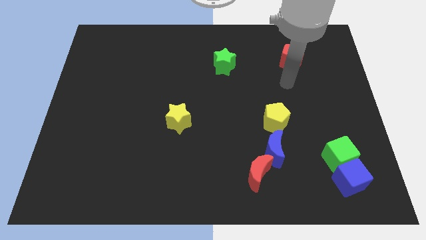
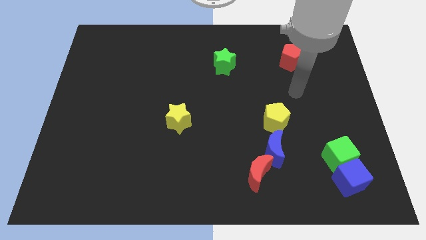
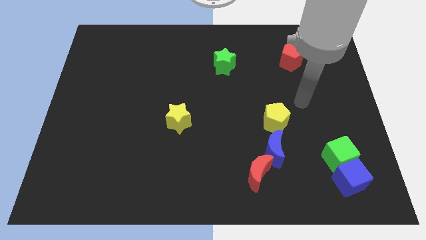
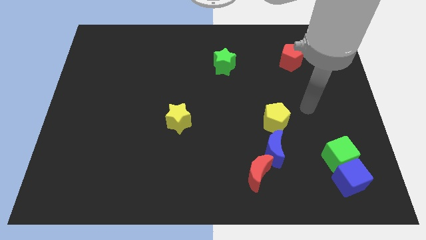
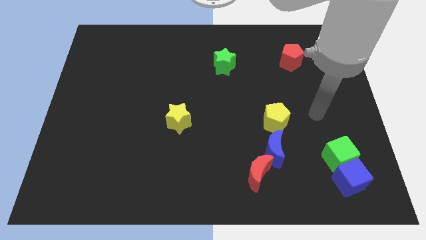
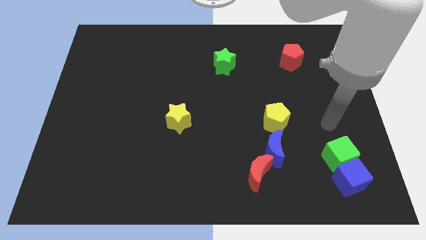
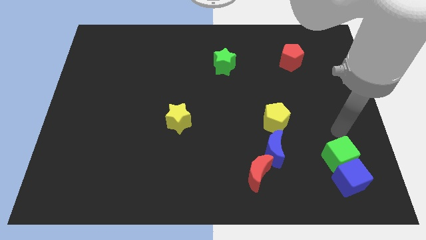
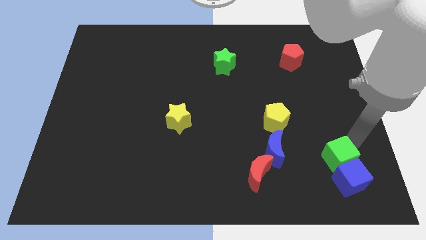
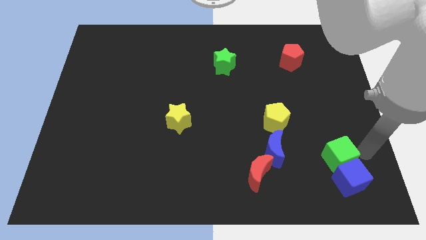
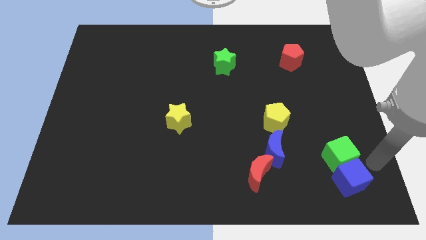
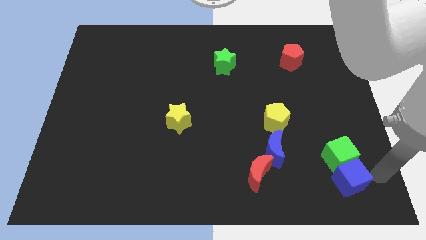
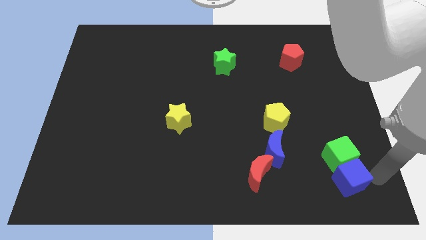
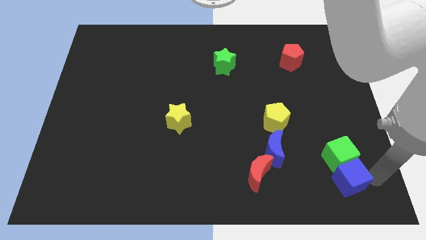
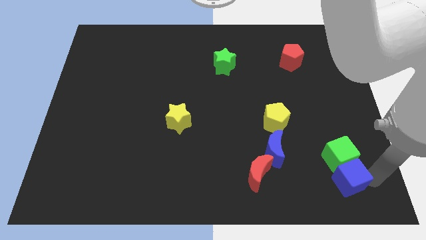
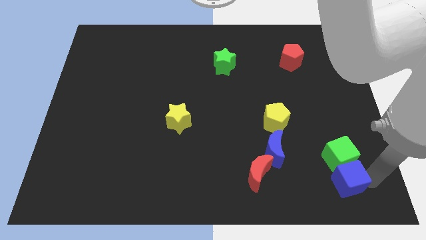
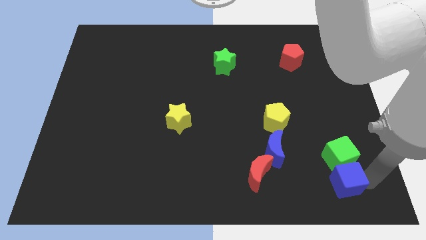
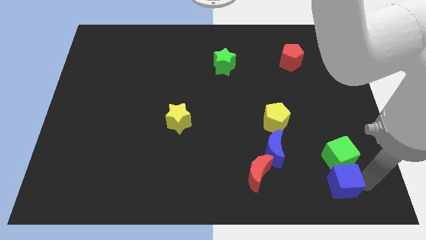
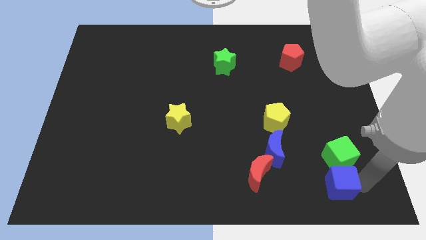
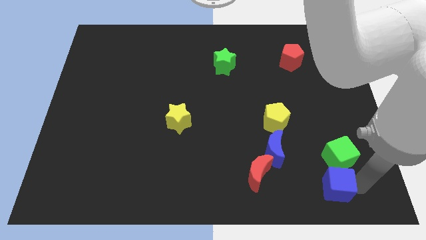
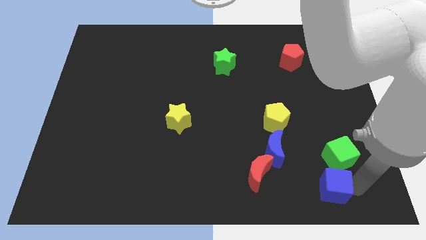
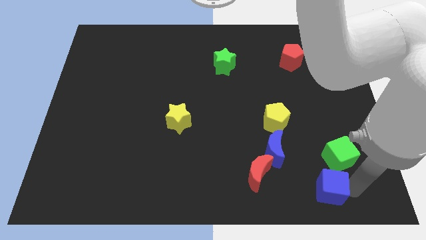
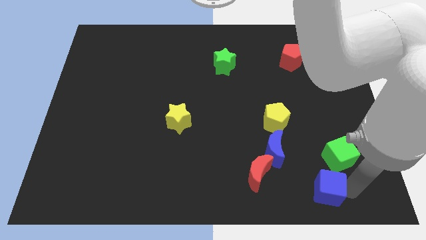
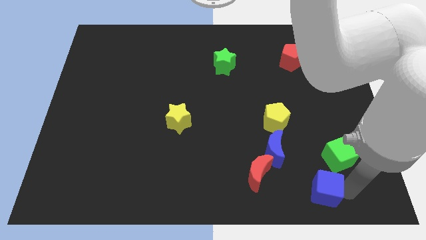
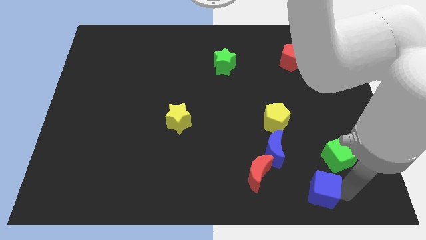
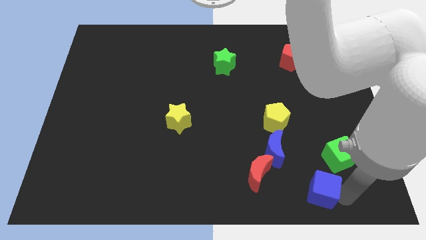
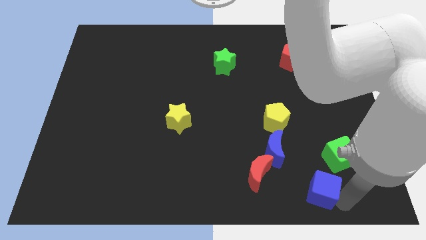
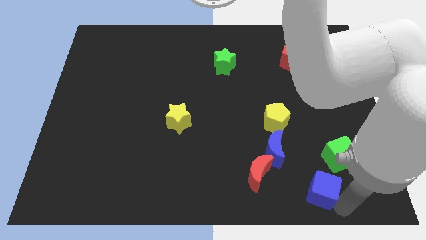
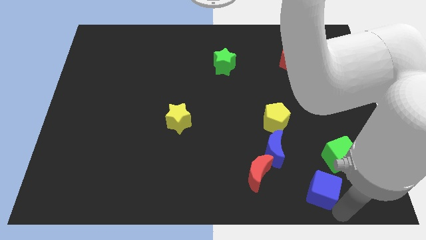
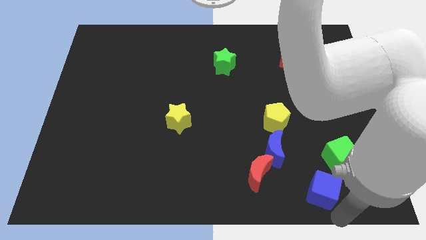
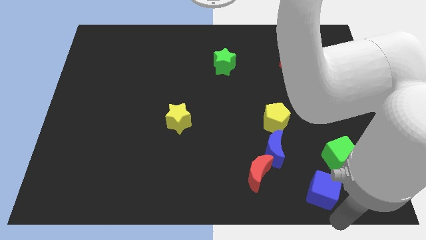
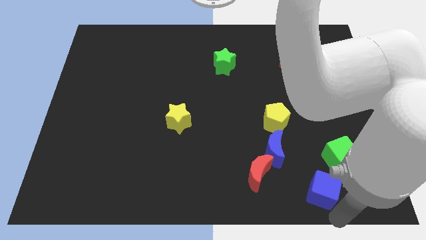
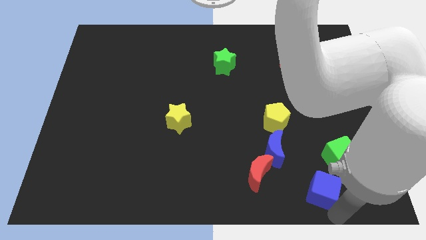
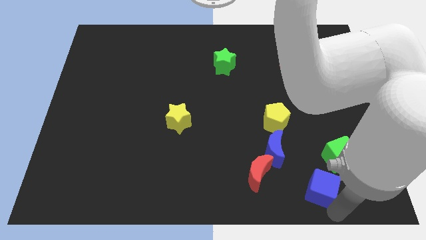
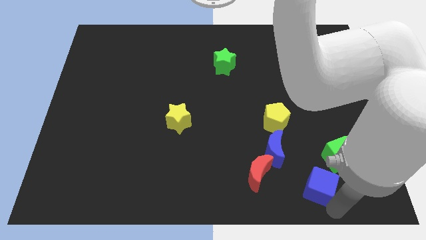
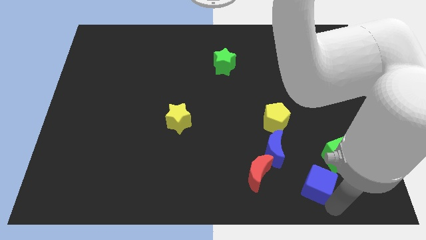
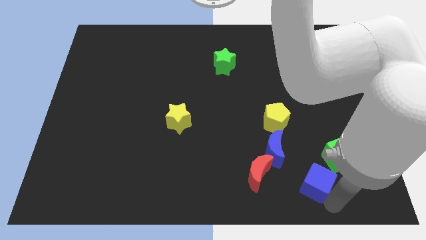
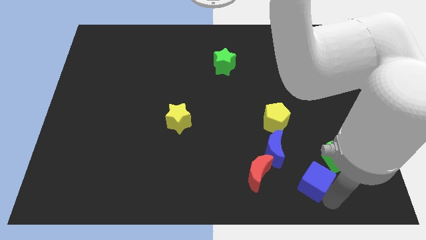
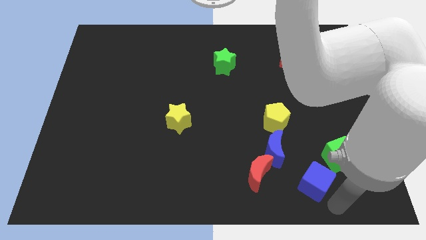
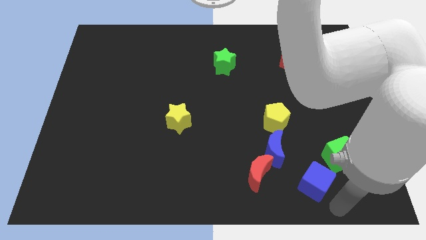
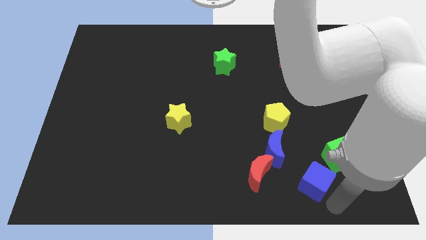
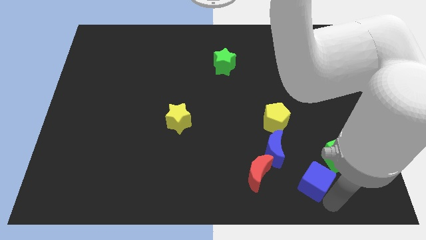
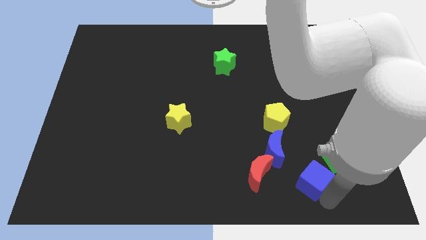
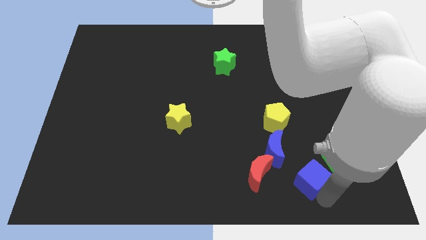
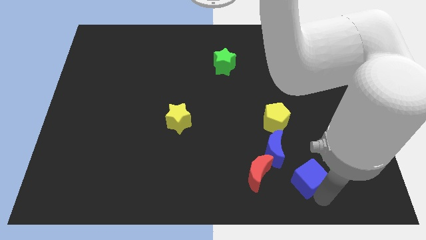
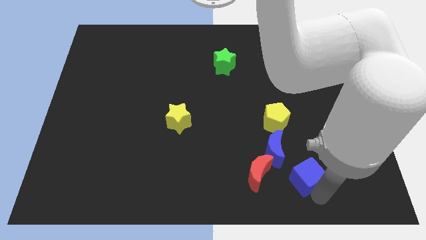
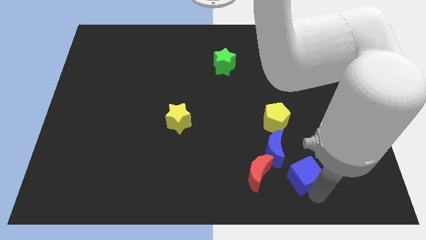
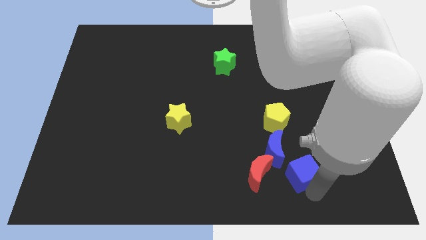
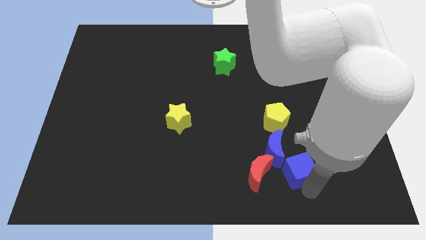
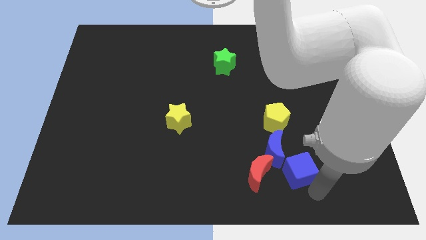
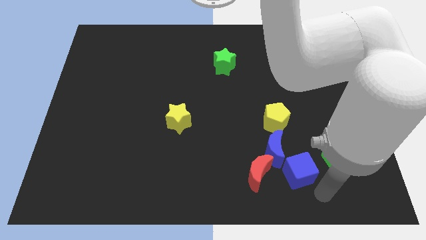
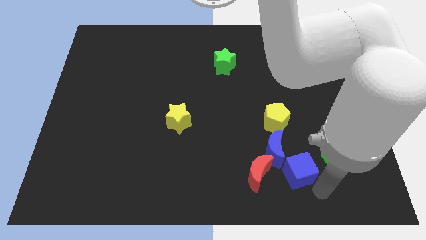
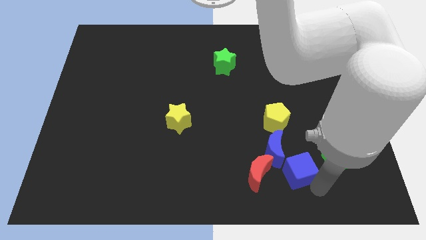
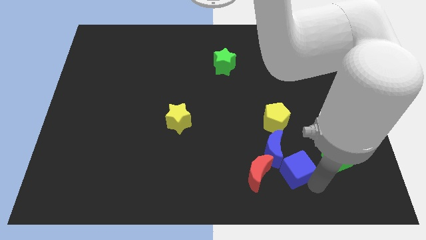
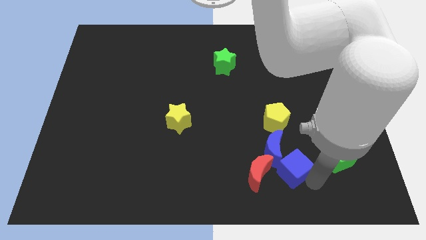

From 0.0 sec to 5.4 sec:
slide the blue cube close to the blue moon

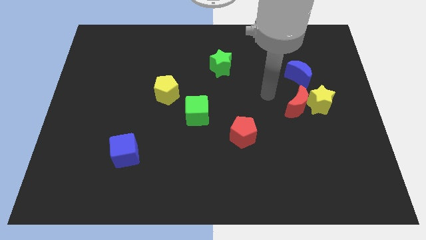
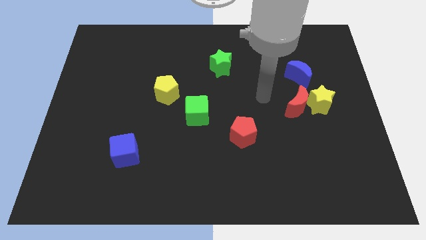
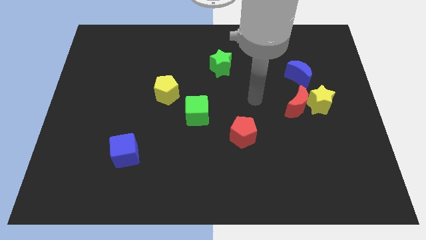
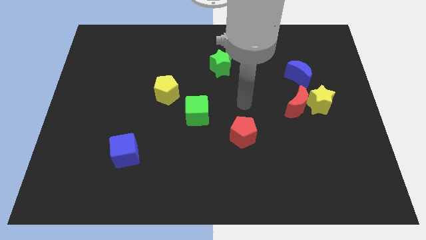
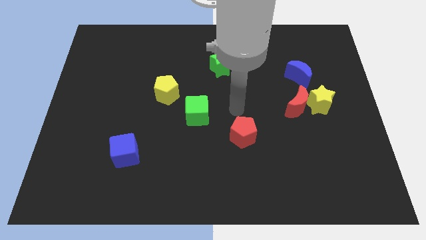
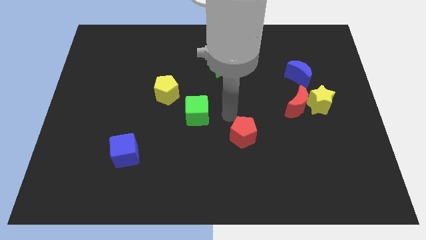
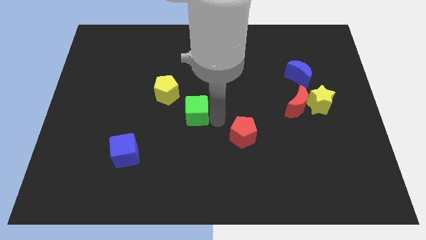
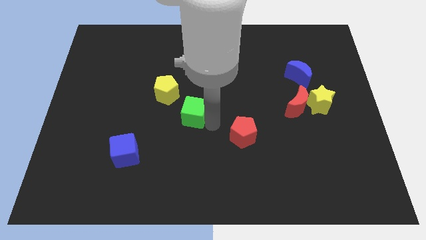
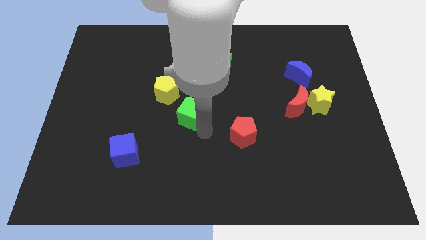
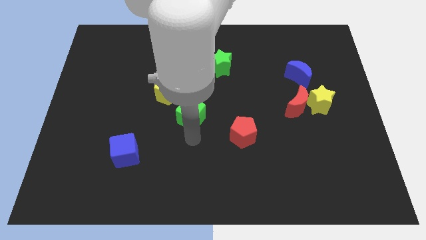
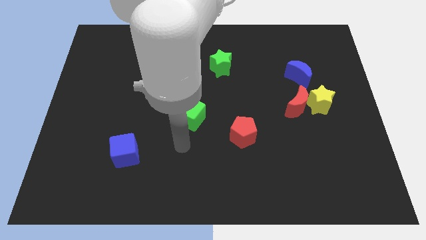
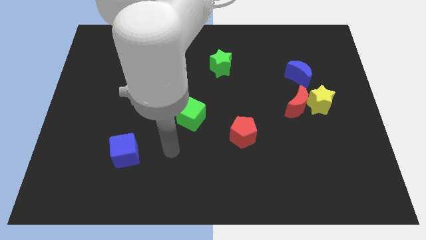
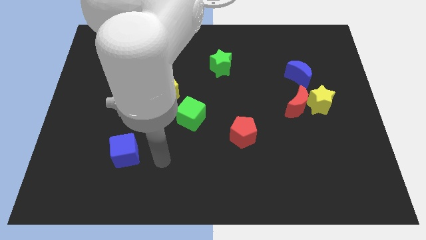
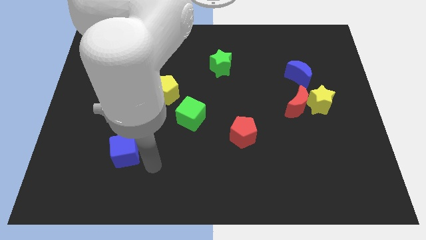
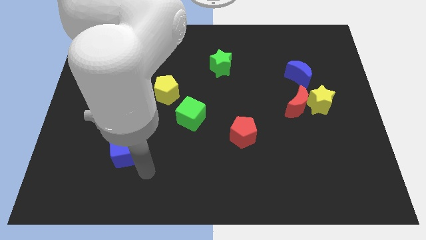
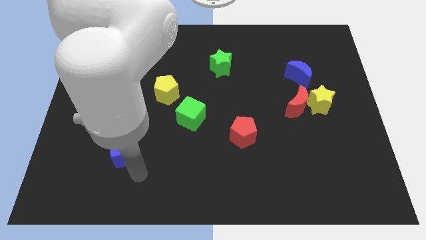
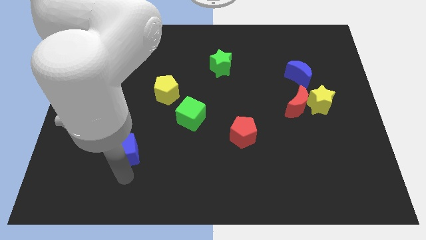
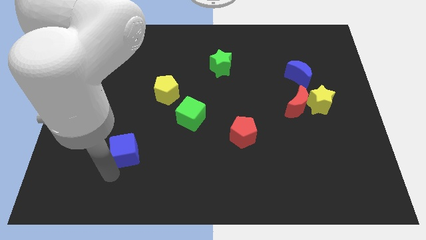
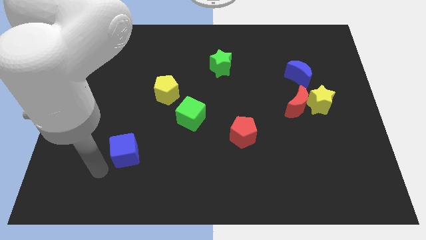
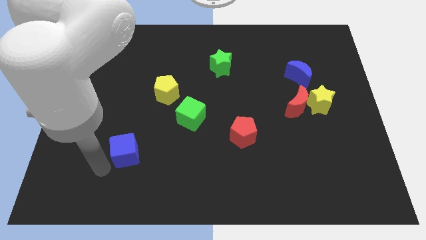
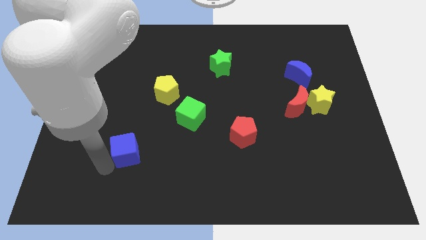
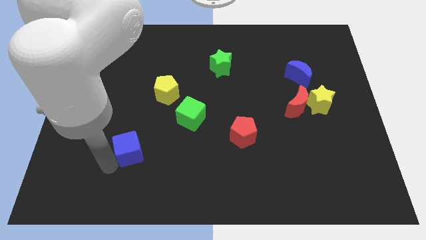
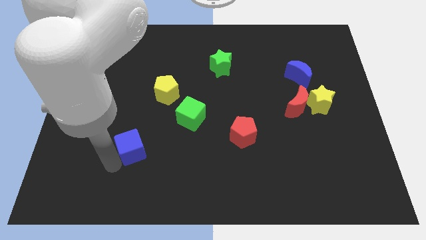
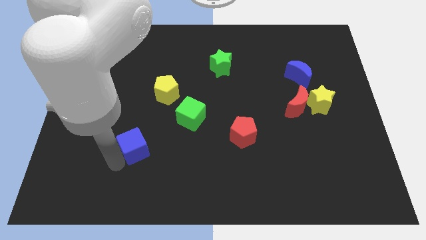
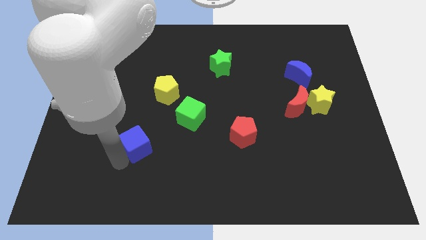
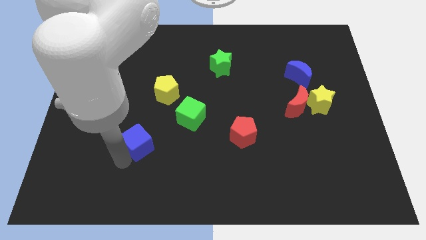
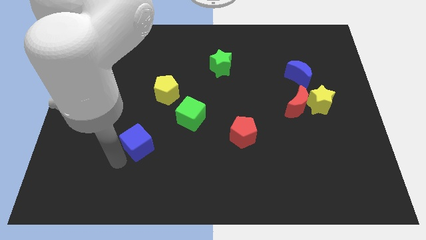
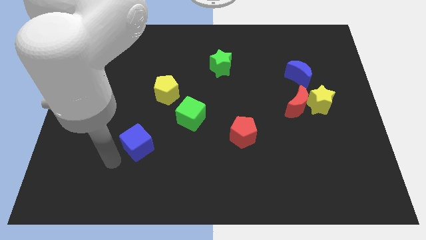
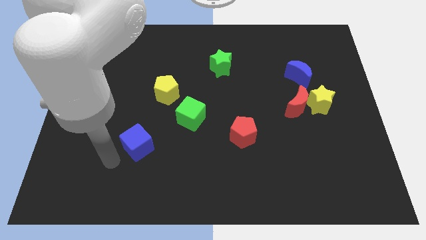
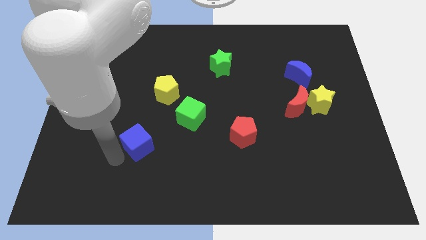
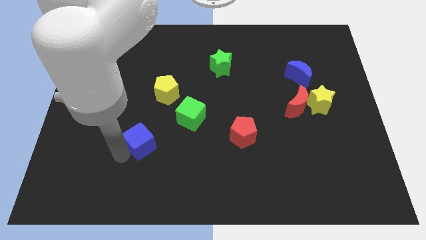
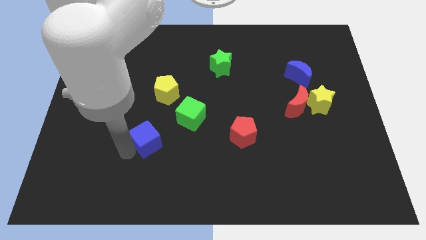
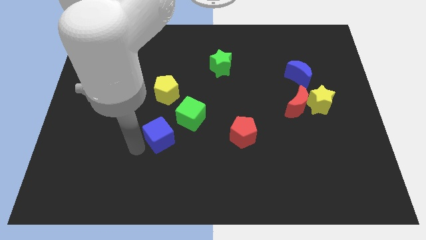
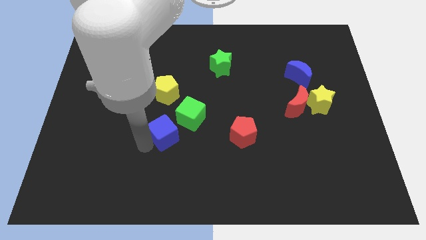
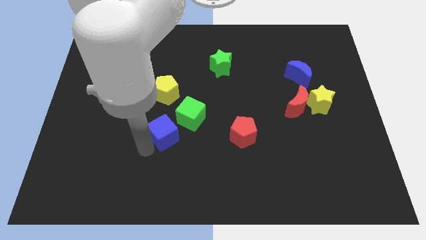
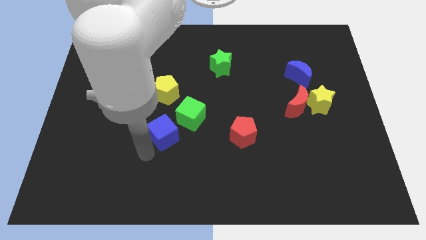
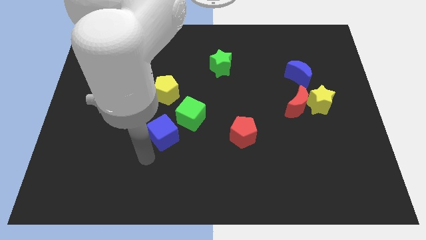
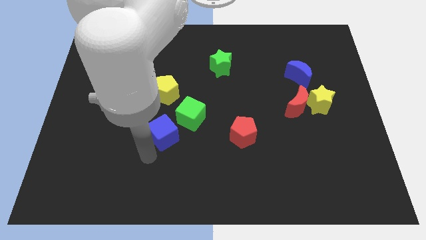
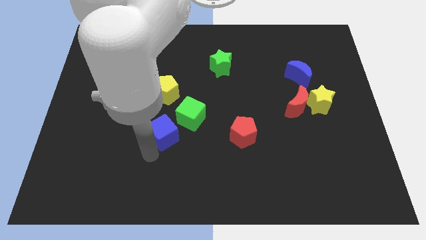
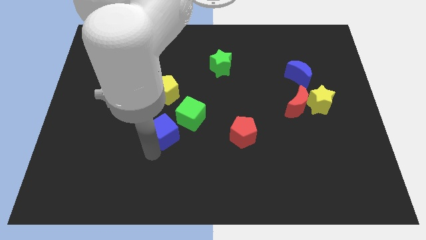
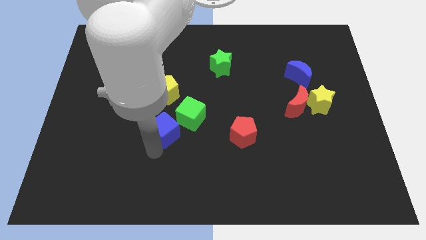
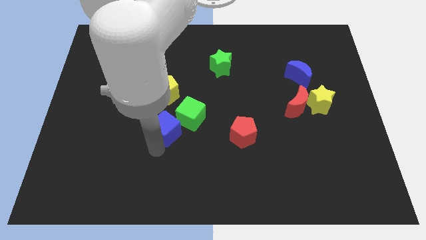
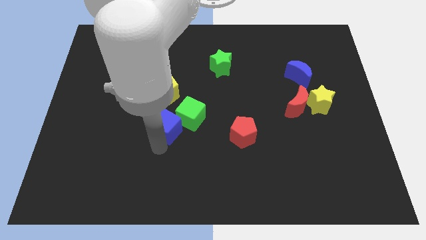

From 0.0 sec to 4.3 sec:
put the blue cube towards the green cube
